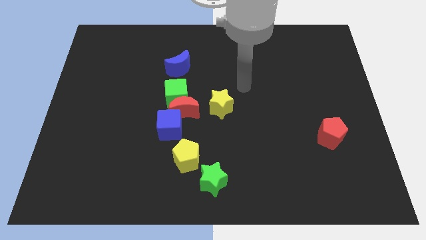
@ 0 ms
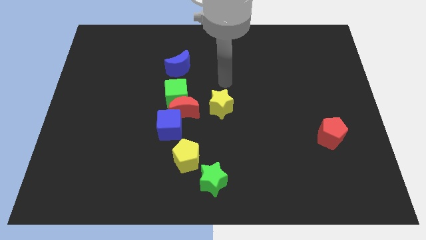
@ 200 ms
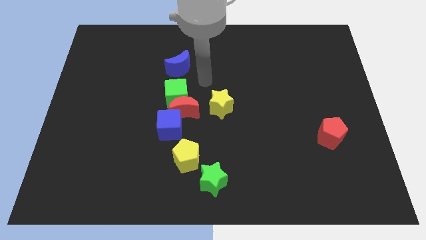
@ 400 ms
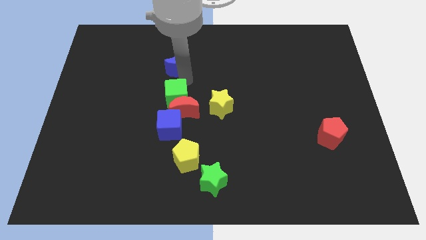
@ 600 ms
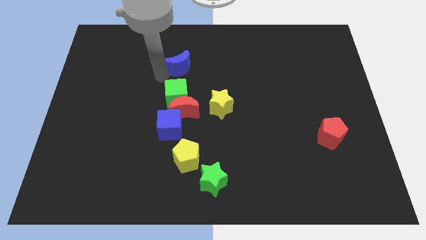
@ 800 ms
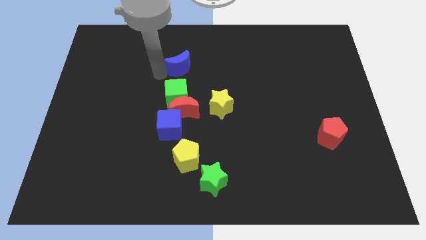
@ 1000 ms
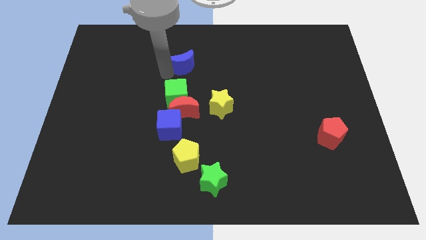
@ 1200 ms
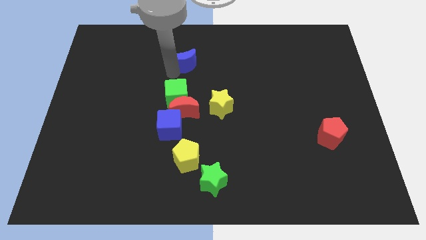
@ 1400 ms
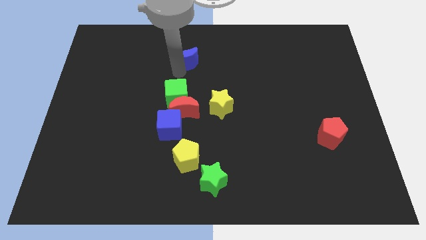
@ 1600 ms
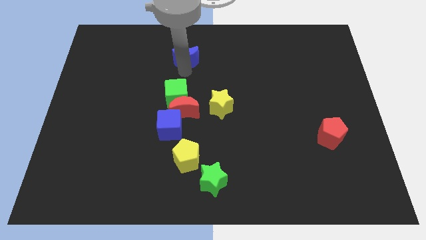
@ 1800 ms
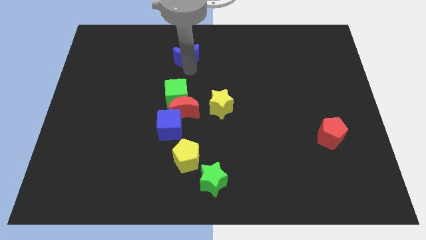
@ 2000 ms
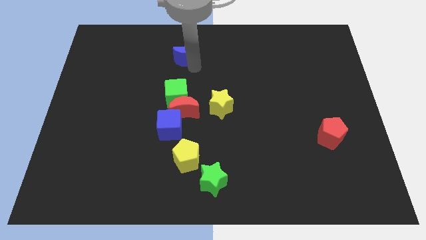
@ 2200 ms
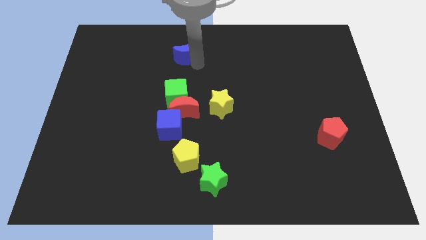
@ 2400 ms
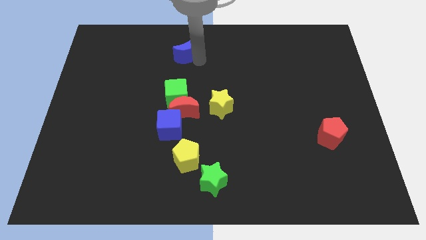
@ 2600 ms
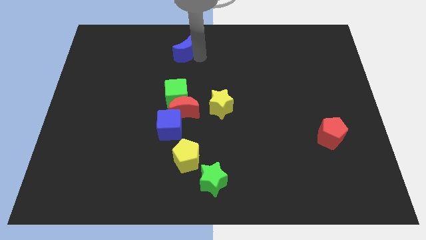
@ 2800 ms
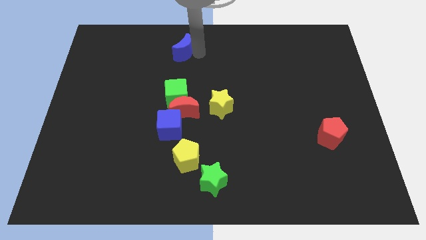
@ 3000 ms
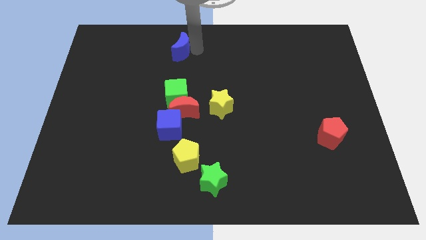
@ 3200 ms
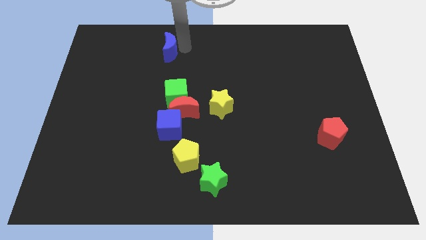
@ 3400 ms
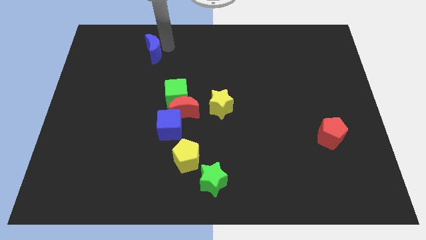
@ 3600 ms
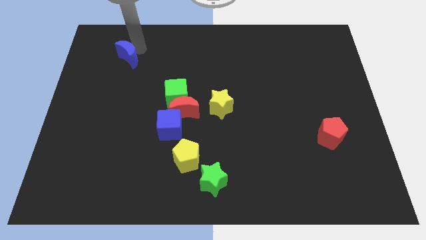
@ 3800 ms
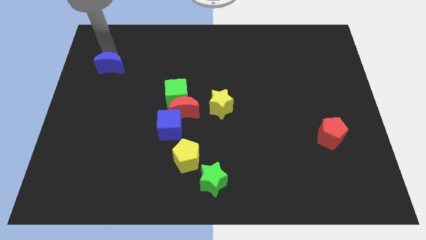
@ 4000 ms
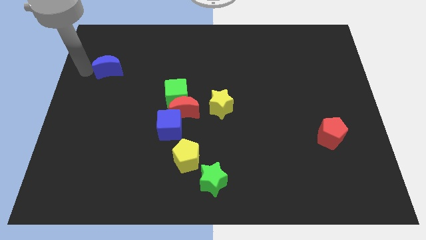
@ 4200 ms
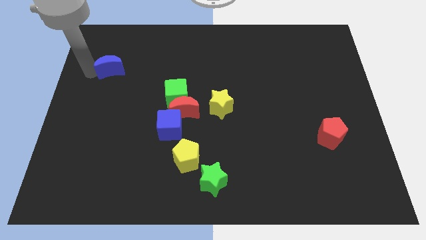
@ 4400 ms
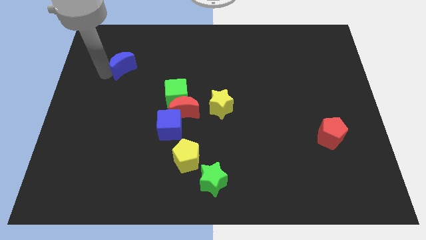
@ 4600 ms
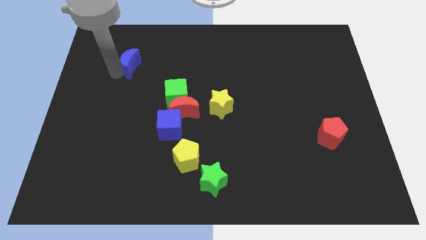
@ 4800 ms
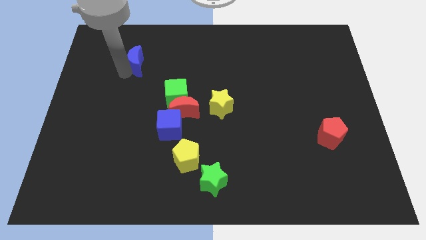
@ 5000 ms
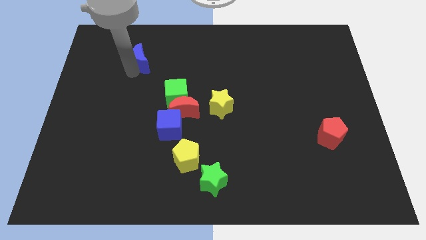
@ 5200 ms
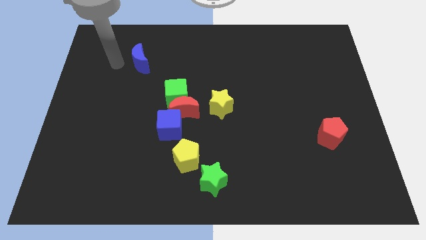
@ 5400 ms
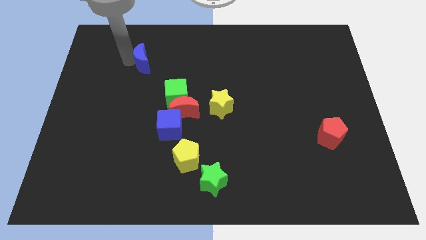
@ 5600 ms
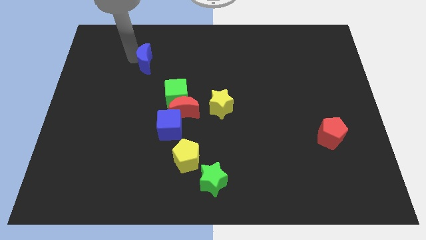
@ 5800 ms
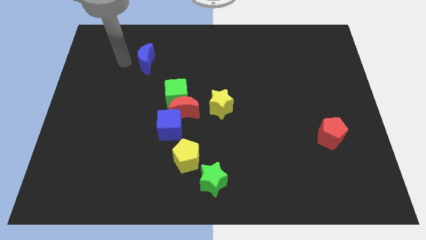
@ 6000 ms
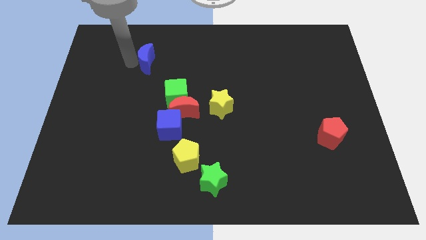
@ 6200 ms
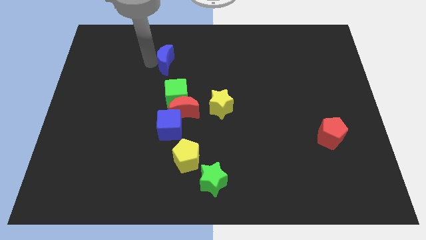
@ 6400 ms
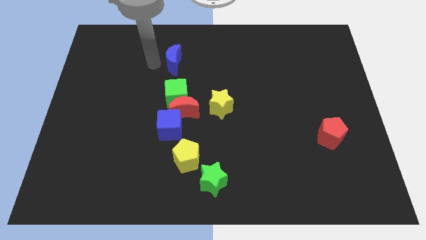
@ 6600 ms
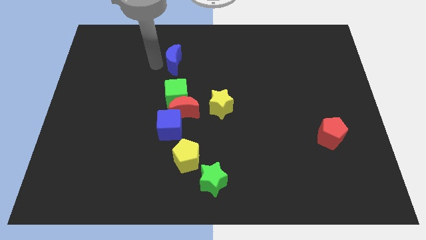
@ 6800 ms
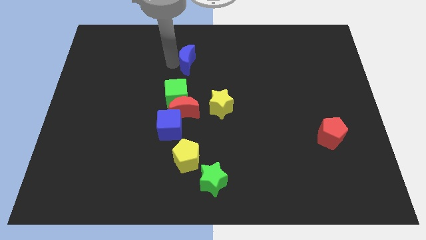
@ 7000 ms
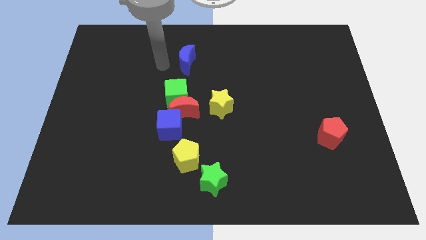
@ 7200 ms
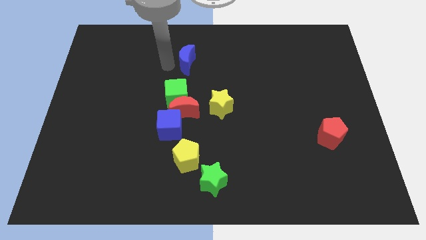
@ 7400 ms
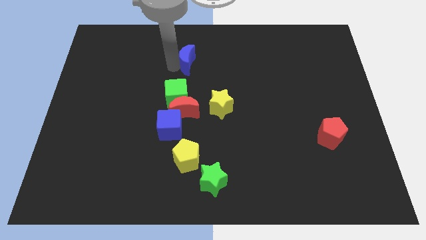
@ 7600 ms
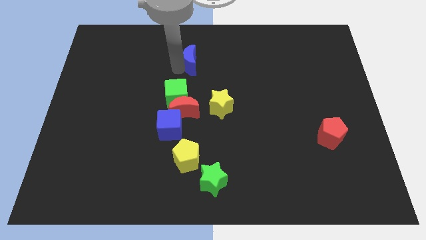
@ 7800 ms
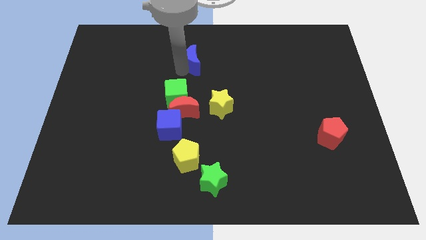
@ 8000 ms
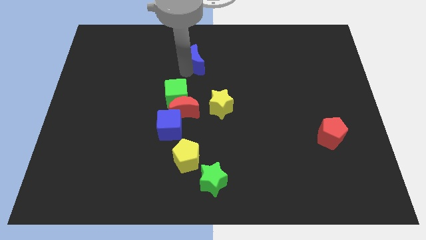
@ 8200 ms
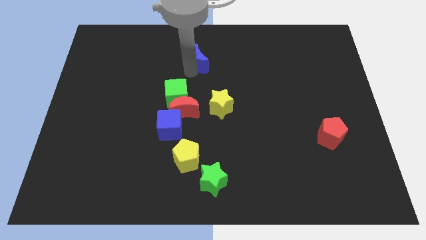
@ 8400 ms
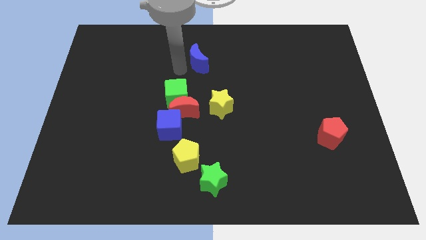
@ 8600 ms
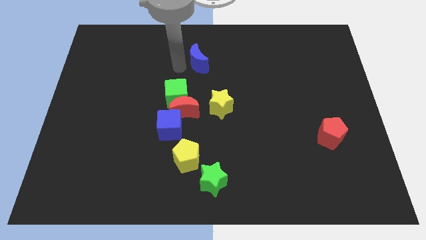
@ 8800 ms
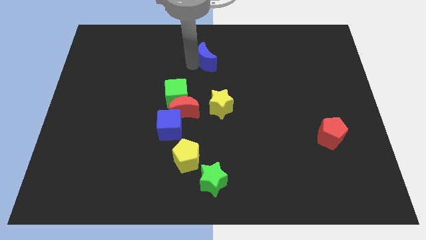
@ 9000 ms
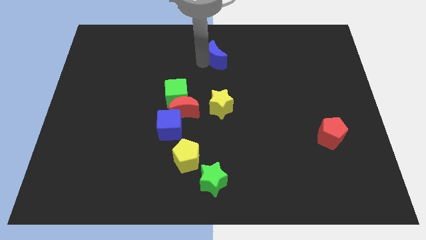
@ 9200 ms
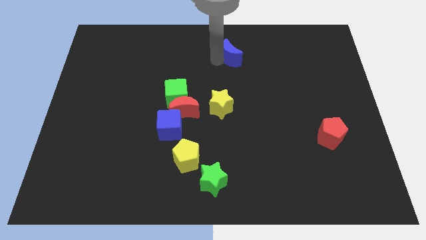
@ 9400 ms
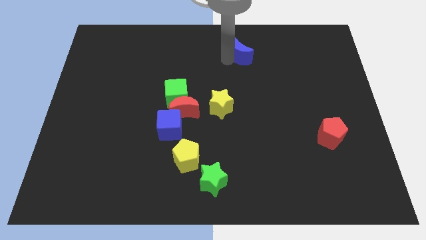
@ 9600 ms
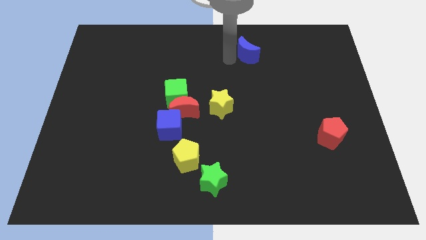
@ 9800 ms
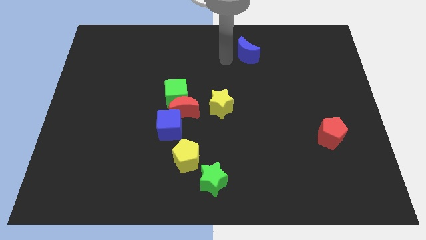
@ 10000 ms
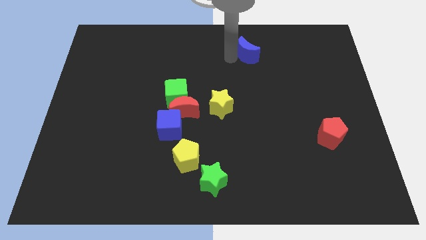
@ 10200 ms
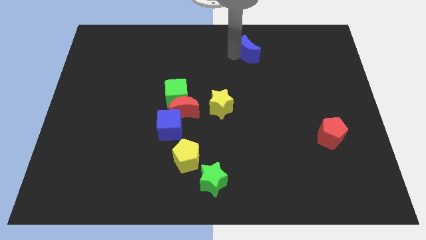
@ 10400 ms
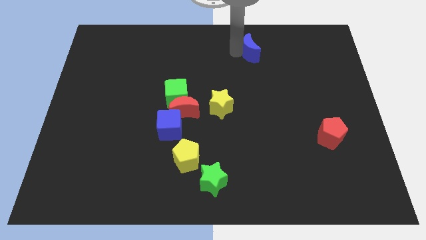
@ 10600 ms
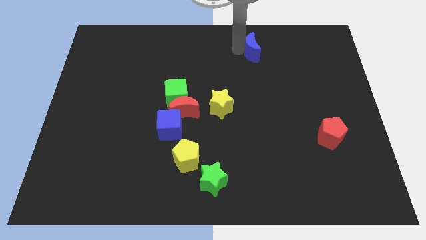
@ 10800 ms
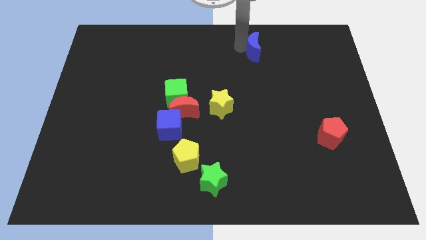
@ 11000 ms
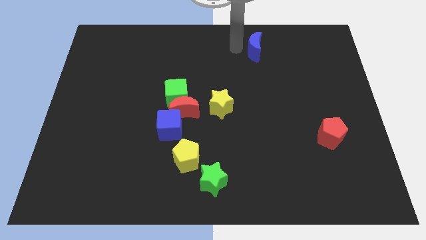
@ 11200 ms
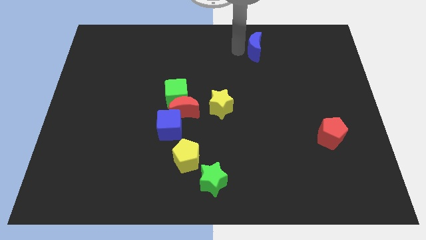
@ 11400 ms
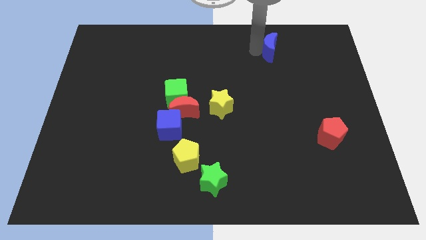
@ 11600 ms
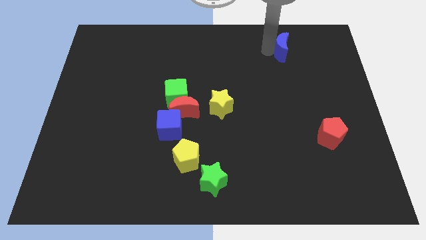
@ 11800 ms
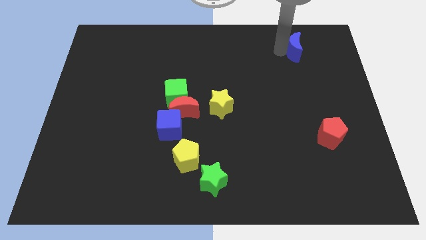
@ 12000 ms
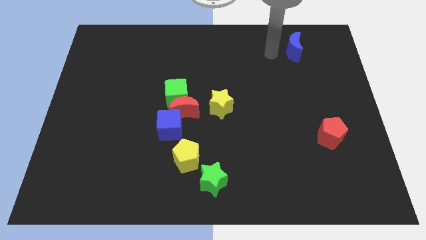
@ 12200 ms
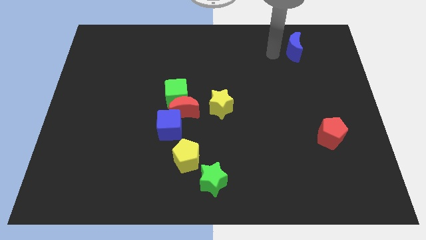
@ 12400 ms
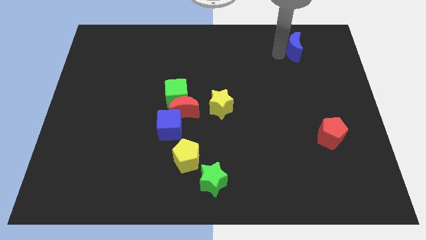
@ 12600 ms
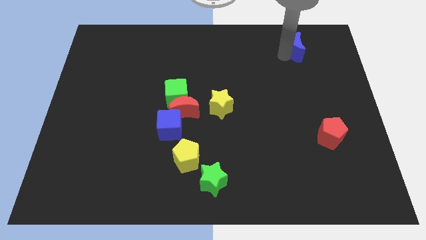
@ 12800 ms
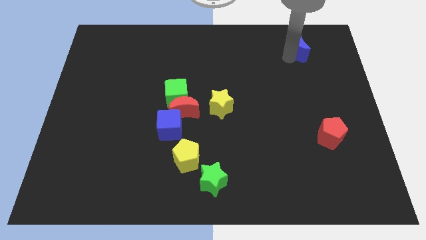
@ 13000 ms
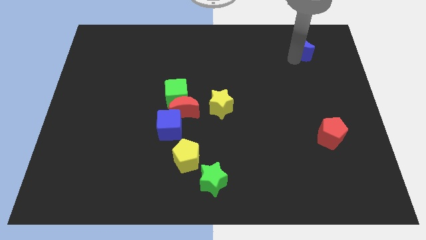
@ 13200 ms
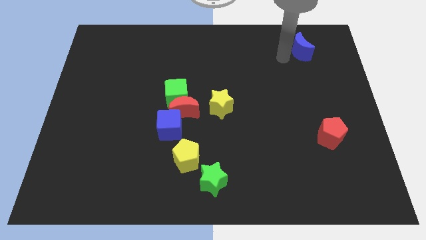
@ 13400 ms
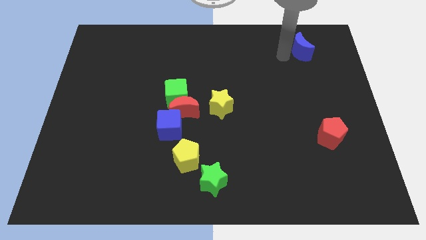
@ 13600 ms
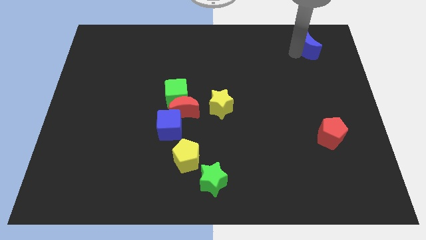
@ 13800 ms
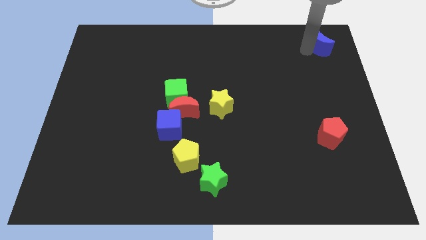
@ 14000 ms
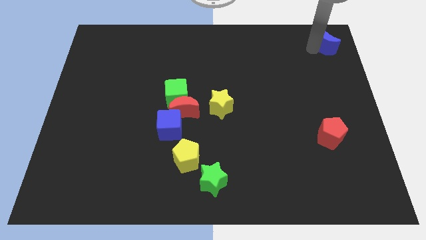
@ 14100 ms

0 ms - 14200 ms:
slide the blue moon to the top right
